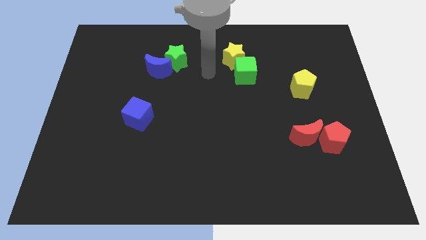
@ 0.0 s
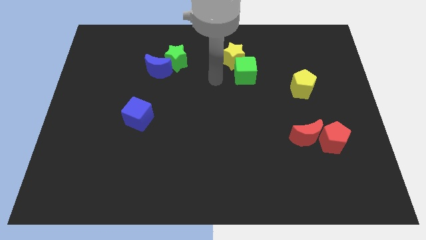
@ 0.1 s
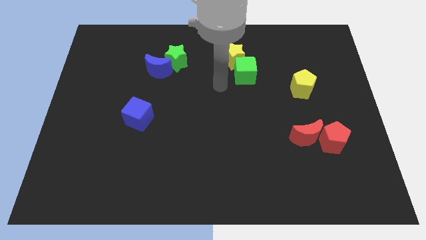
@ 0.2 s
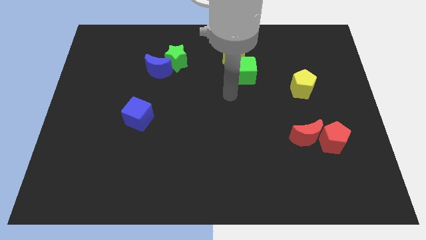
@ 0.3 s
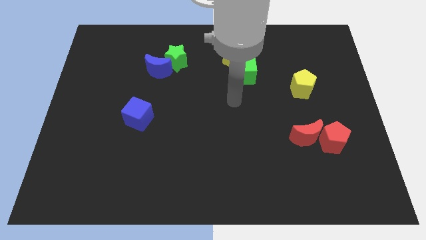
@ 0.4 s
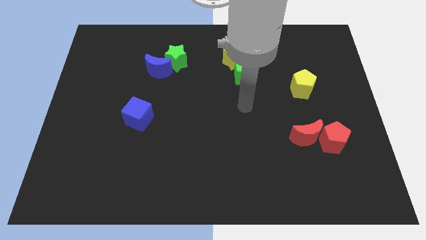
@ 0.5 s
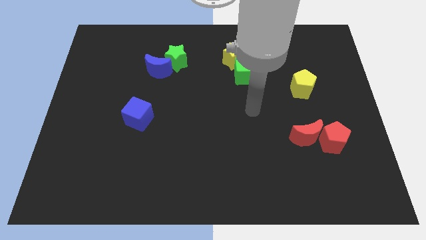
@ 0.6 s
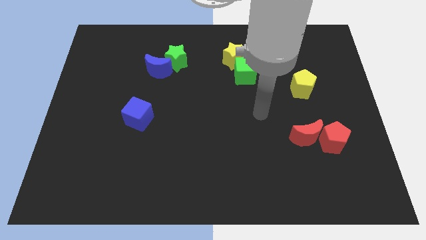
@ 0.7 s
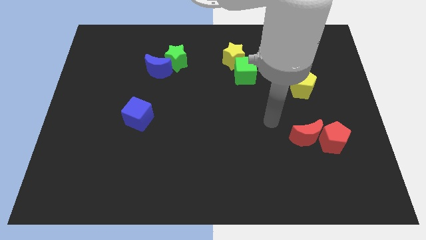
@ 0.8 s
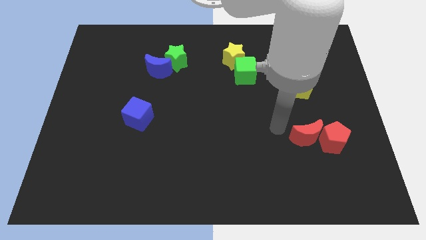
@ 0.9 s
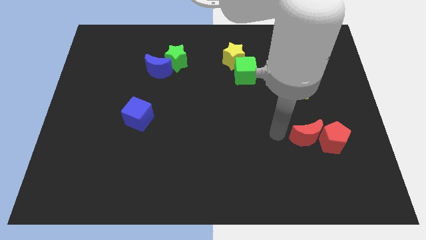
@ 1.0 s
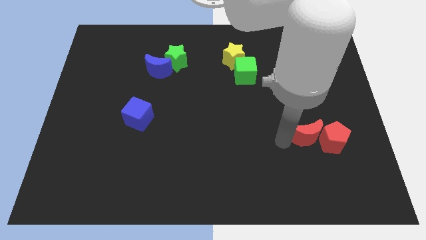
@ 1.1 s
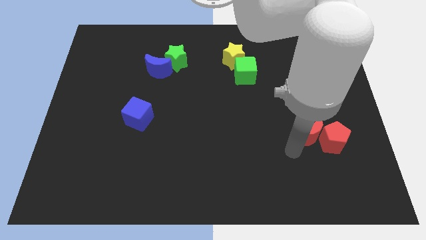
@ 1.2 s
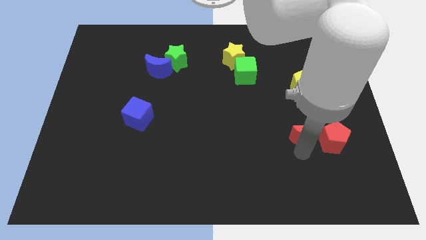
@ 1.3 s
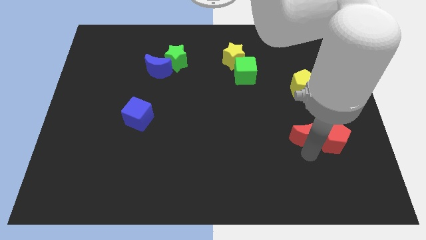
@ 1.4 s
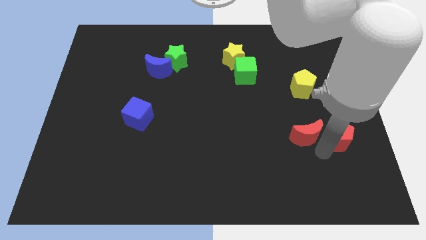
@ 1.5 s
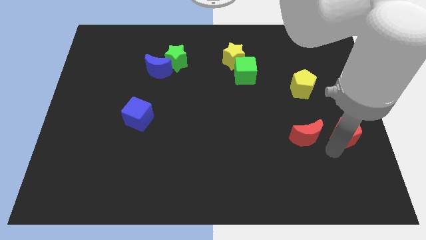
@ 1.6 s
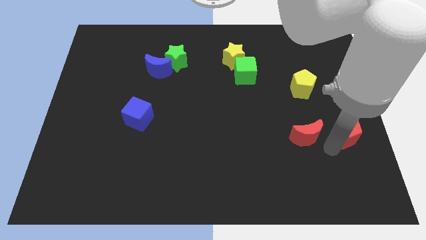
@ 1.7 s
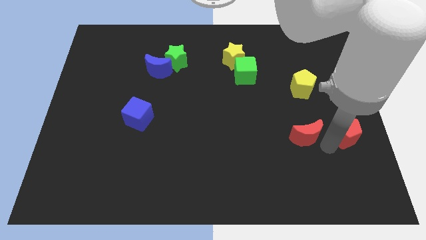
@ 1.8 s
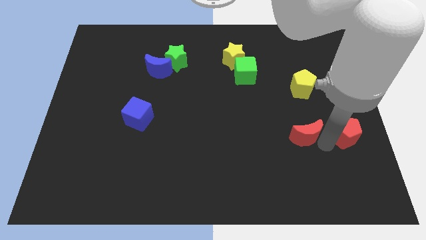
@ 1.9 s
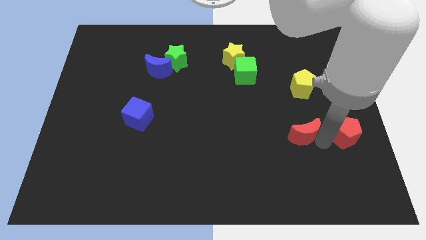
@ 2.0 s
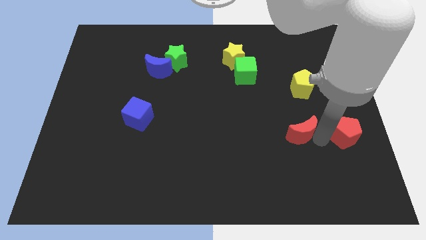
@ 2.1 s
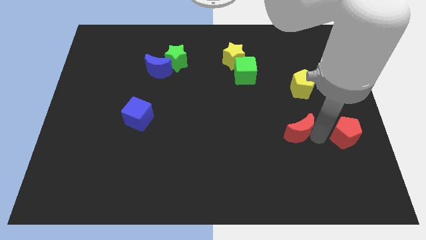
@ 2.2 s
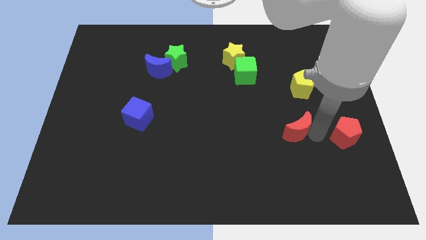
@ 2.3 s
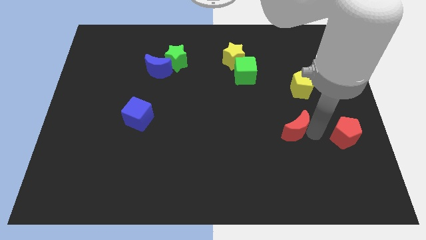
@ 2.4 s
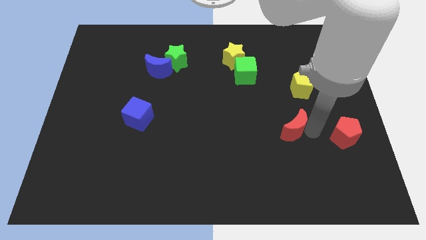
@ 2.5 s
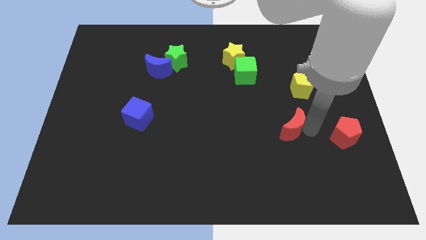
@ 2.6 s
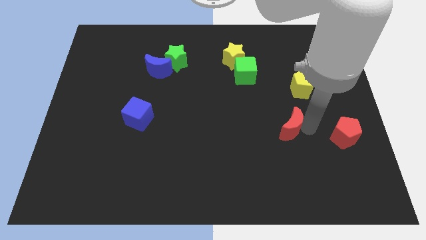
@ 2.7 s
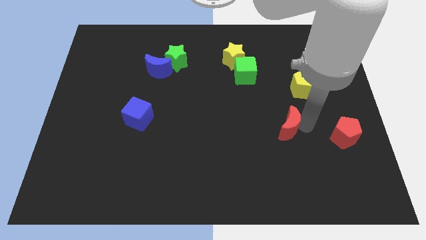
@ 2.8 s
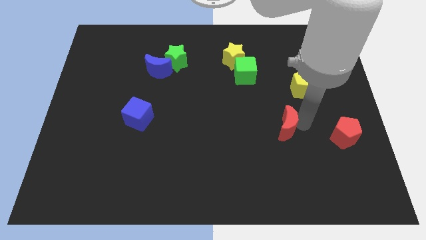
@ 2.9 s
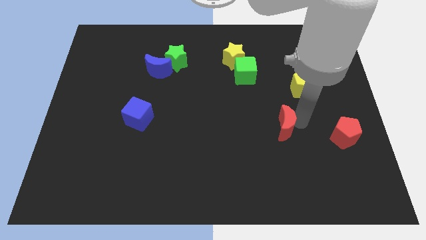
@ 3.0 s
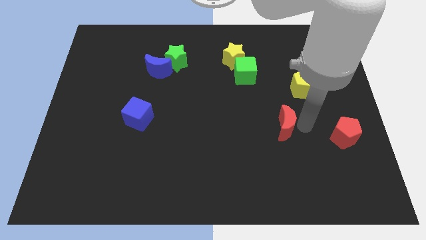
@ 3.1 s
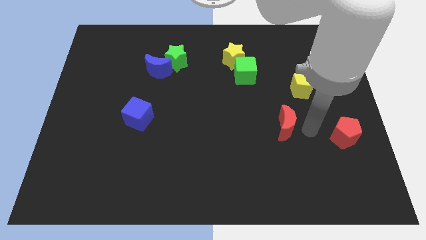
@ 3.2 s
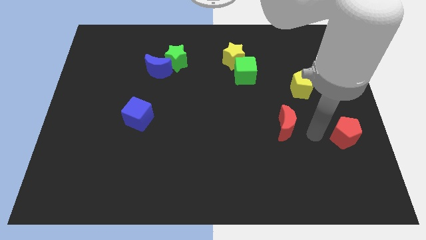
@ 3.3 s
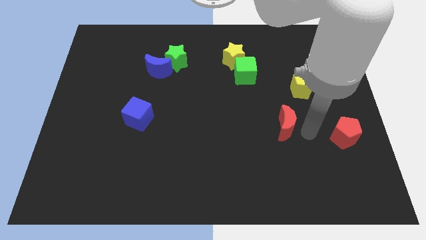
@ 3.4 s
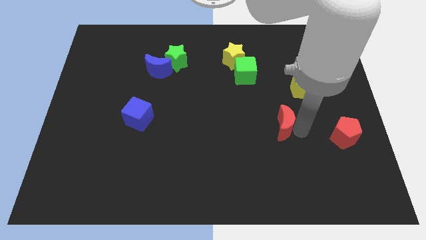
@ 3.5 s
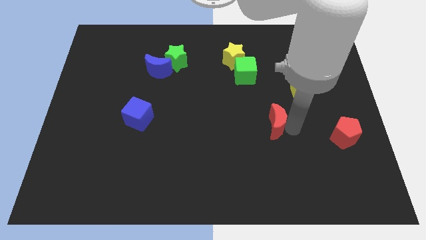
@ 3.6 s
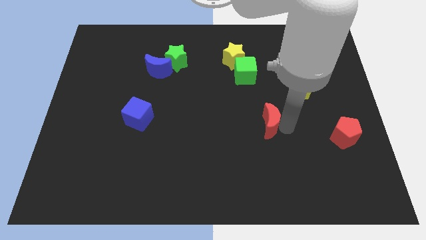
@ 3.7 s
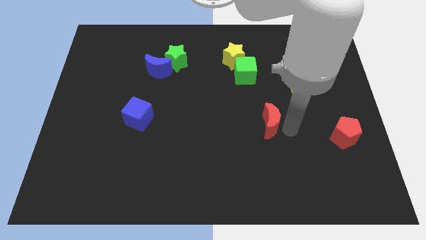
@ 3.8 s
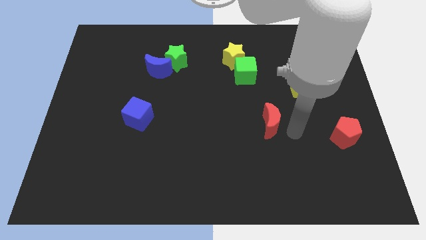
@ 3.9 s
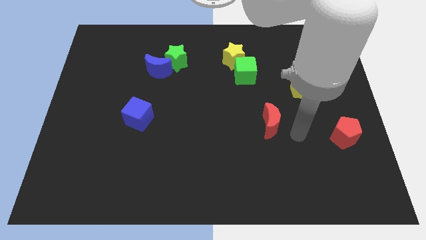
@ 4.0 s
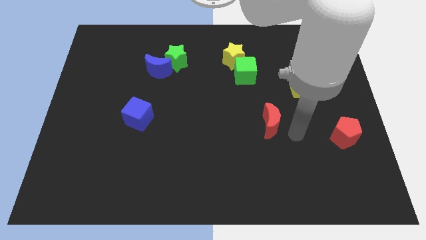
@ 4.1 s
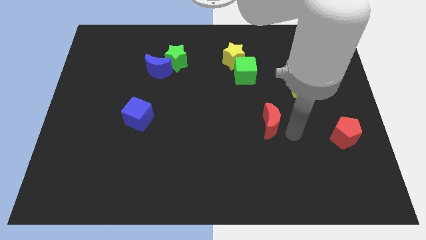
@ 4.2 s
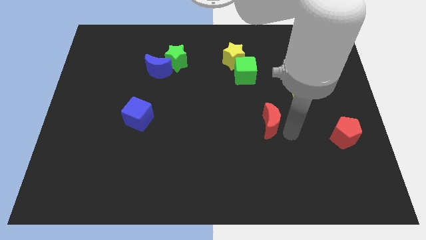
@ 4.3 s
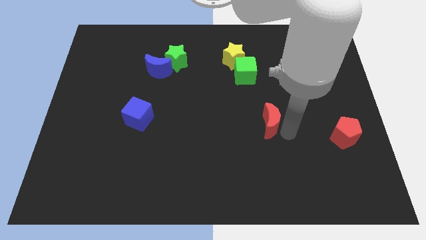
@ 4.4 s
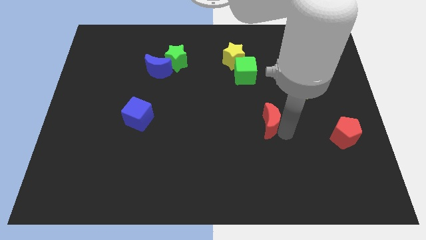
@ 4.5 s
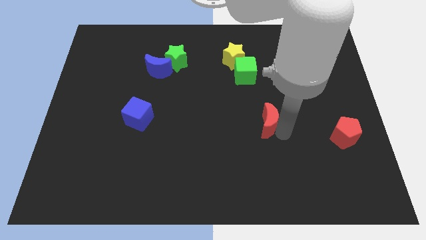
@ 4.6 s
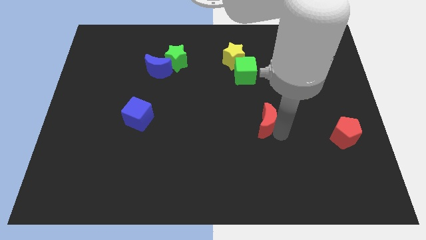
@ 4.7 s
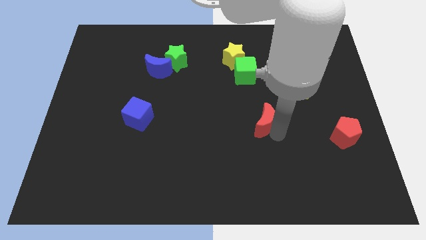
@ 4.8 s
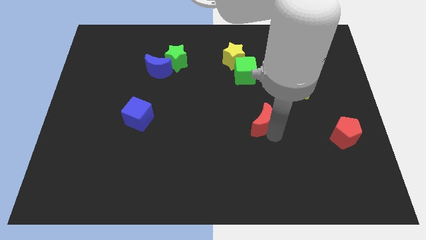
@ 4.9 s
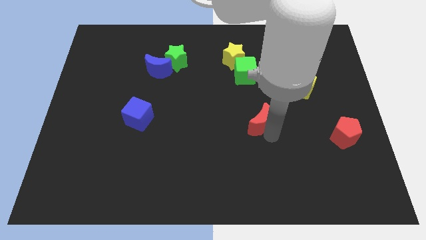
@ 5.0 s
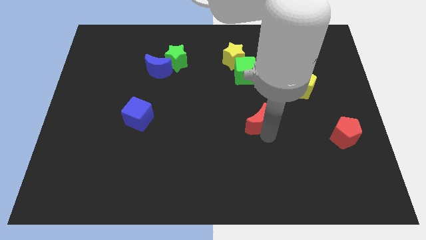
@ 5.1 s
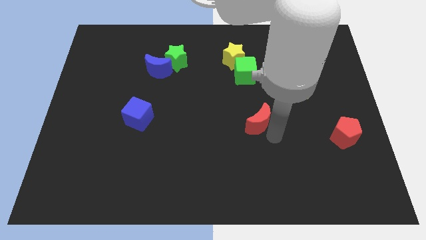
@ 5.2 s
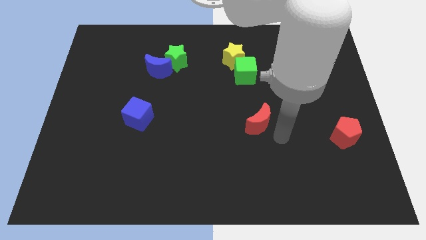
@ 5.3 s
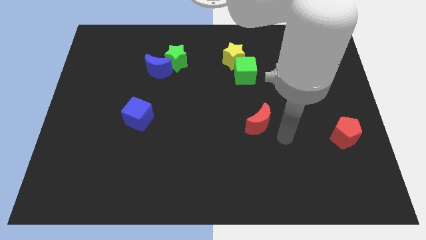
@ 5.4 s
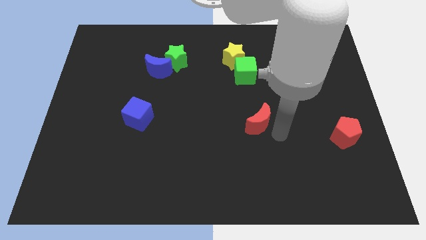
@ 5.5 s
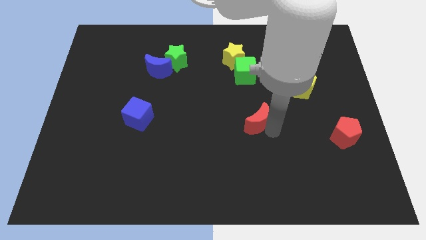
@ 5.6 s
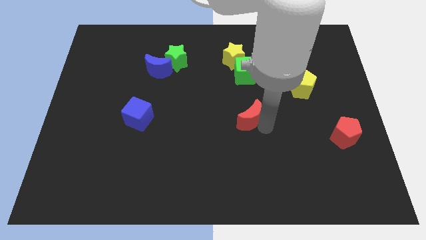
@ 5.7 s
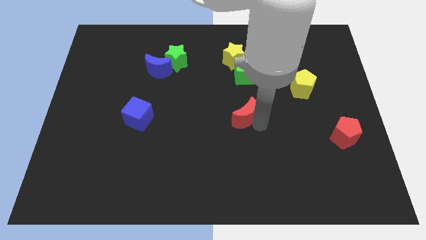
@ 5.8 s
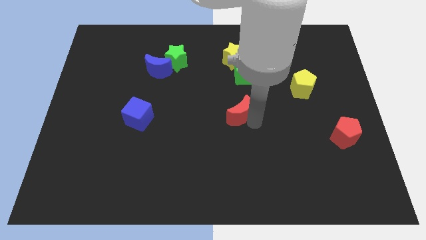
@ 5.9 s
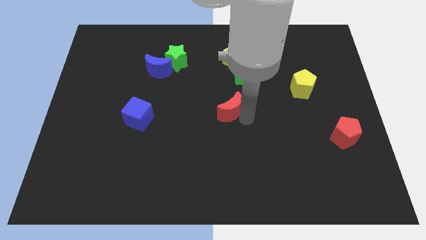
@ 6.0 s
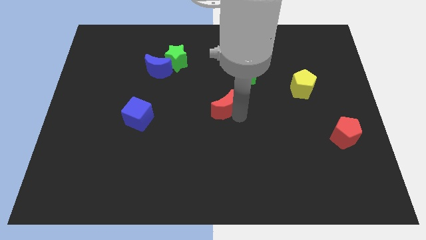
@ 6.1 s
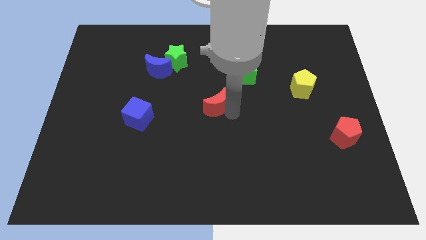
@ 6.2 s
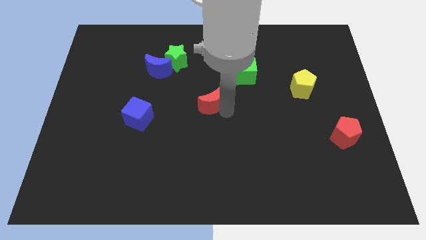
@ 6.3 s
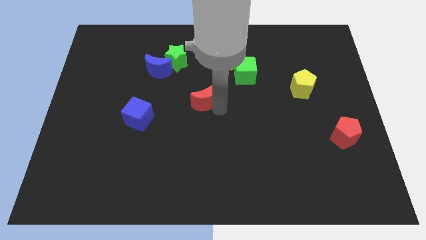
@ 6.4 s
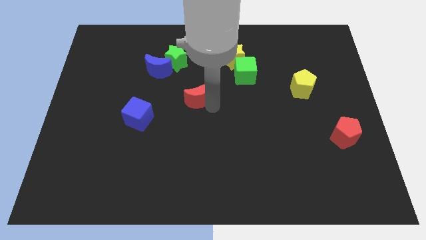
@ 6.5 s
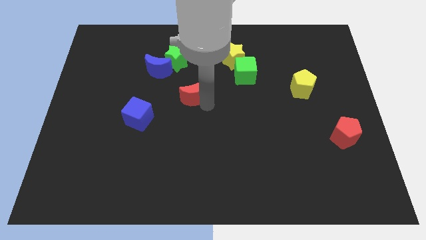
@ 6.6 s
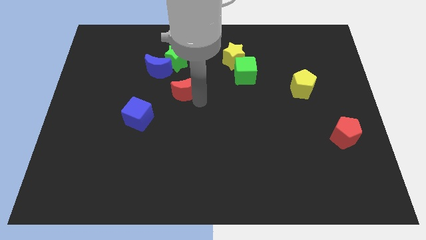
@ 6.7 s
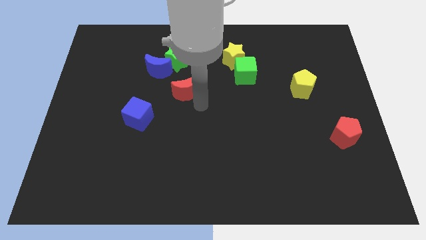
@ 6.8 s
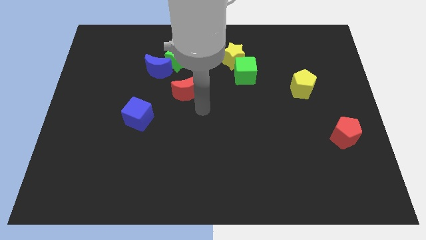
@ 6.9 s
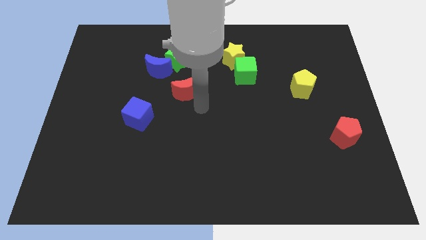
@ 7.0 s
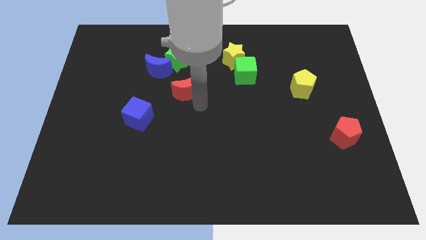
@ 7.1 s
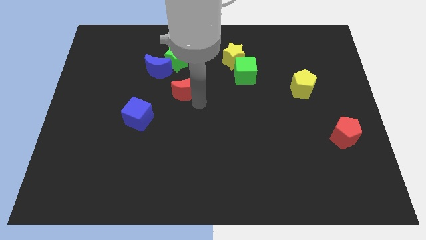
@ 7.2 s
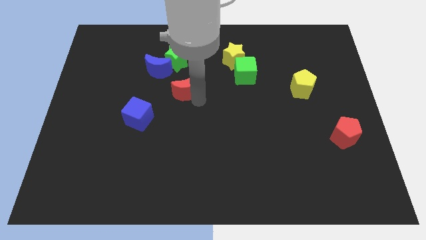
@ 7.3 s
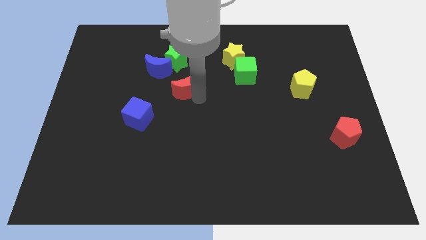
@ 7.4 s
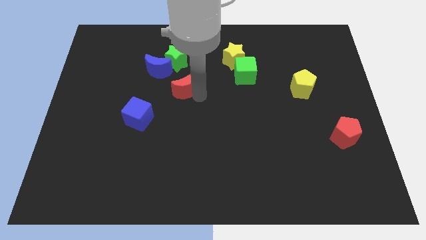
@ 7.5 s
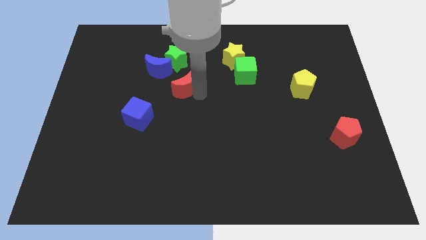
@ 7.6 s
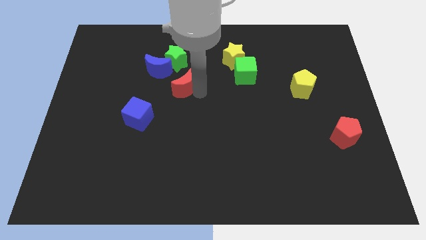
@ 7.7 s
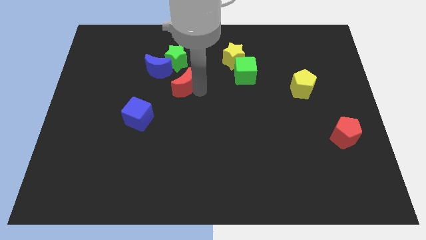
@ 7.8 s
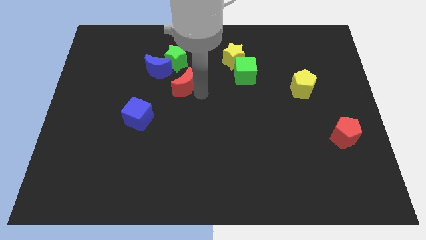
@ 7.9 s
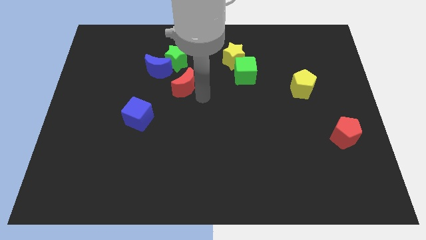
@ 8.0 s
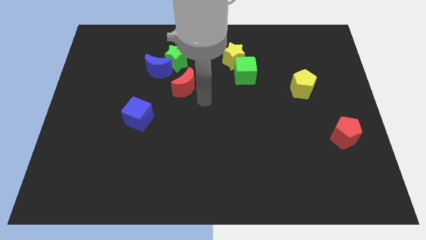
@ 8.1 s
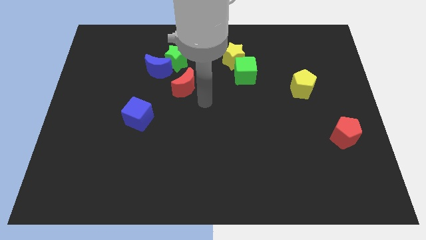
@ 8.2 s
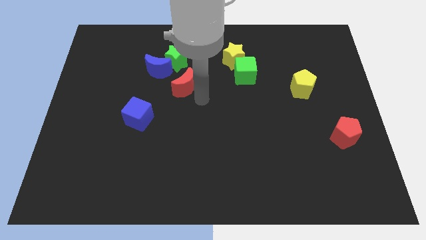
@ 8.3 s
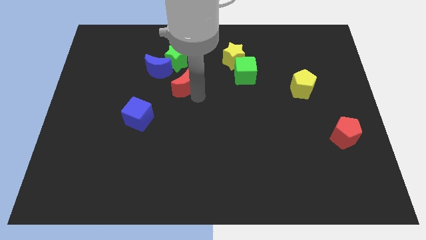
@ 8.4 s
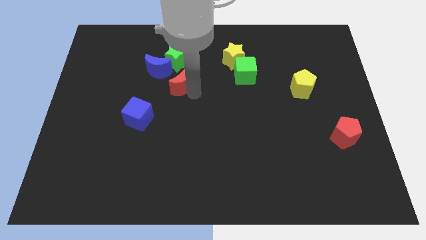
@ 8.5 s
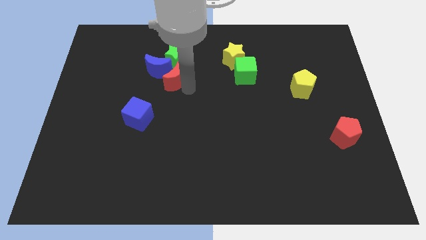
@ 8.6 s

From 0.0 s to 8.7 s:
put the red moon towards the blue moon
